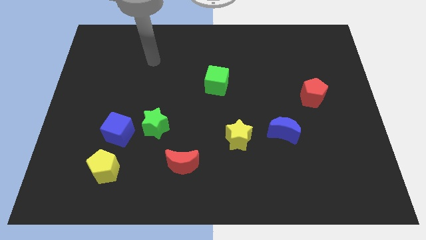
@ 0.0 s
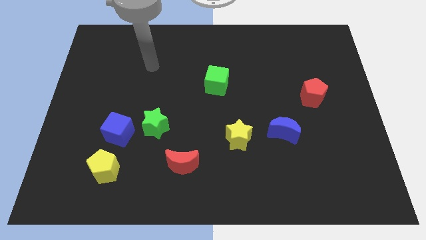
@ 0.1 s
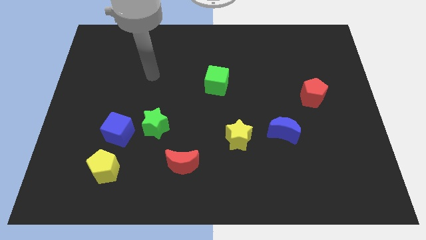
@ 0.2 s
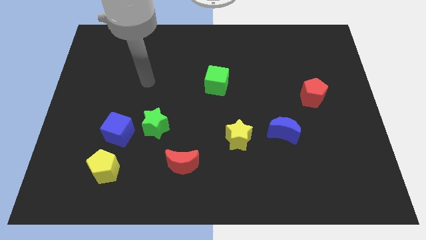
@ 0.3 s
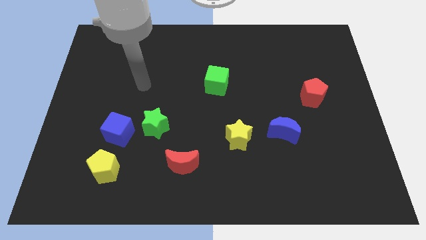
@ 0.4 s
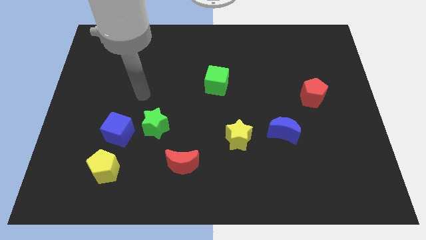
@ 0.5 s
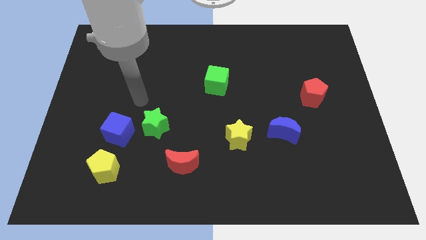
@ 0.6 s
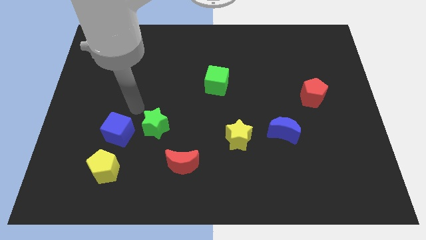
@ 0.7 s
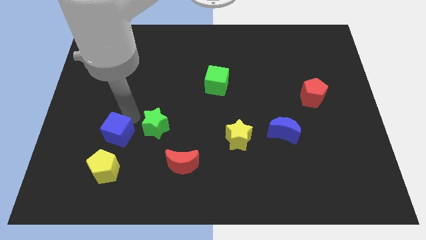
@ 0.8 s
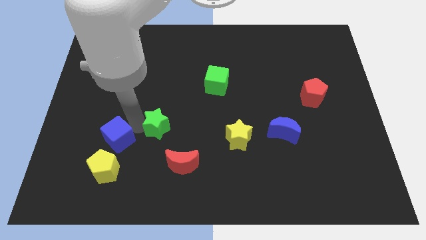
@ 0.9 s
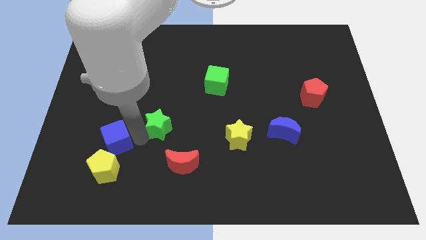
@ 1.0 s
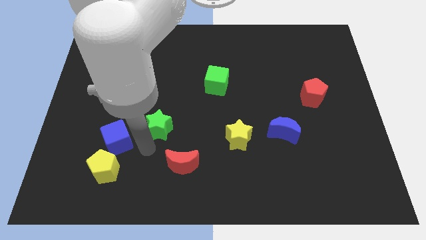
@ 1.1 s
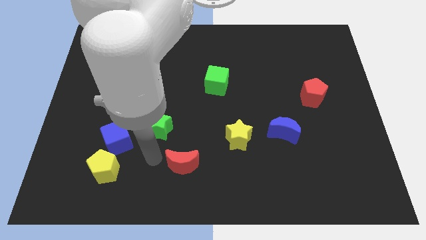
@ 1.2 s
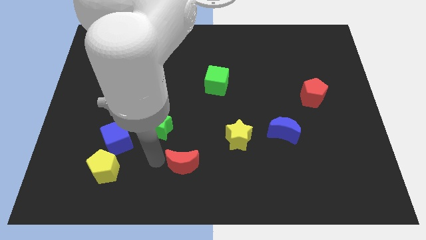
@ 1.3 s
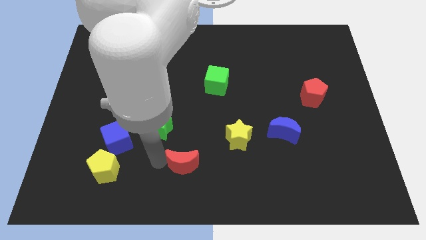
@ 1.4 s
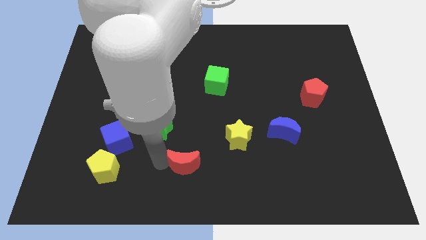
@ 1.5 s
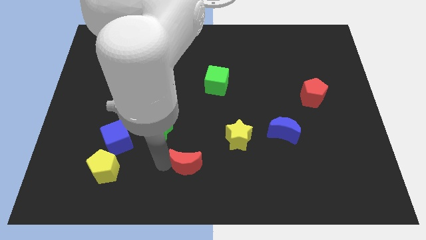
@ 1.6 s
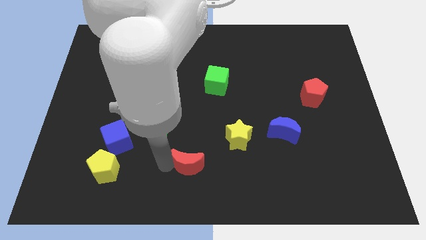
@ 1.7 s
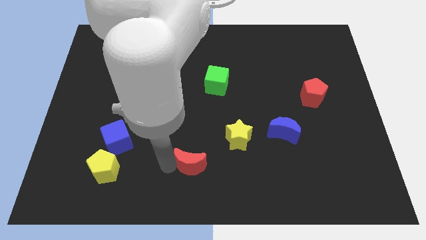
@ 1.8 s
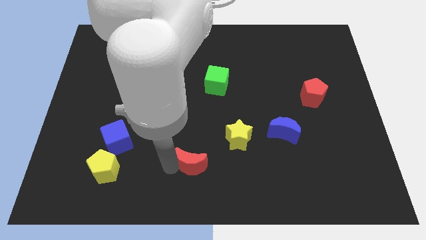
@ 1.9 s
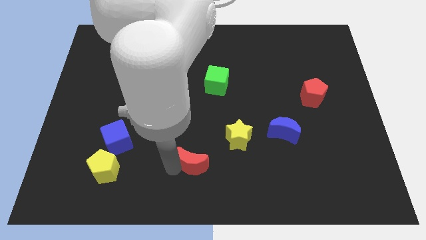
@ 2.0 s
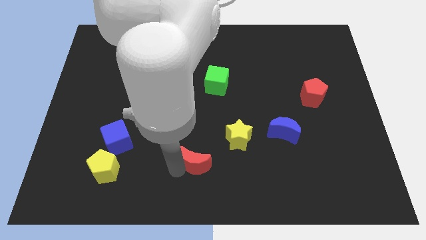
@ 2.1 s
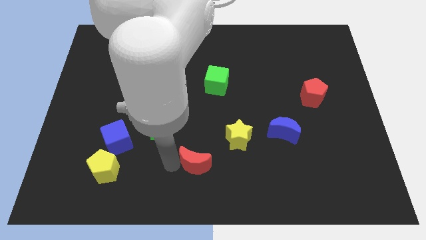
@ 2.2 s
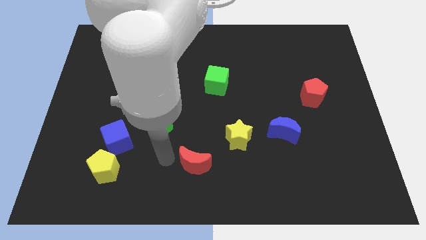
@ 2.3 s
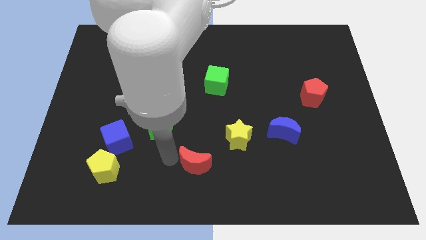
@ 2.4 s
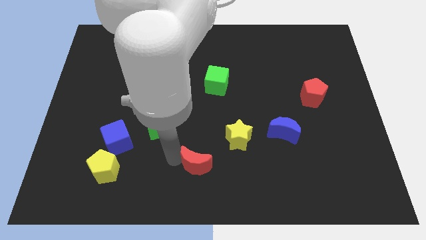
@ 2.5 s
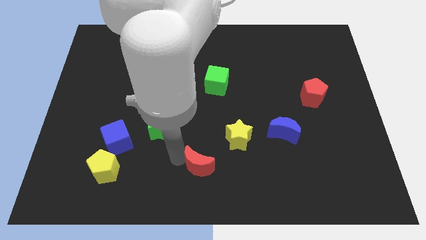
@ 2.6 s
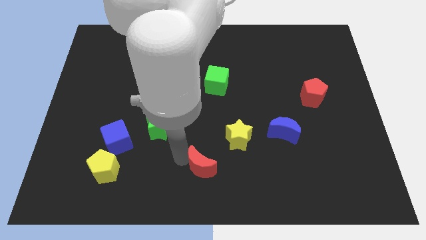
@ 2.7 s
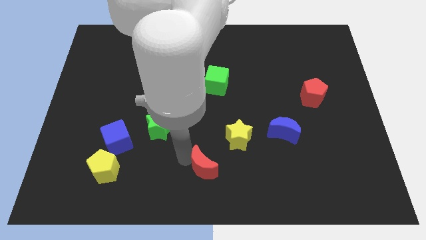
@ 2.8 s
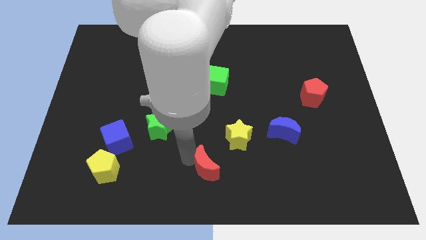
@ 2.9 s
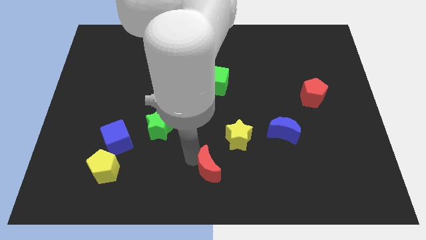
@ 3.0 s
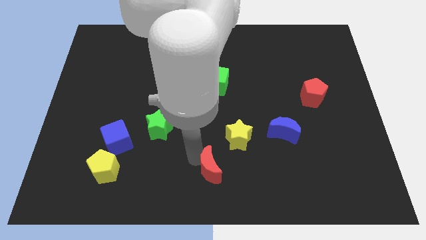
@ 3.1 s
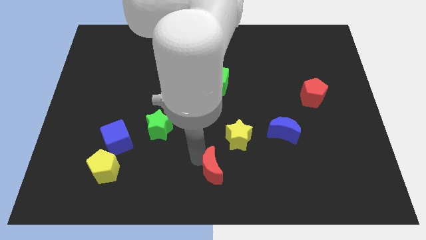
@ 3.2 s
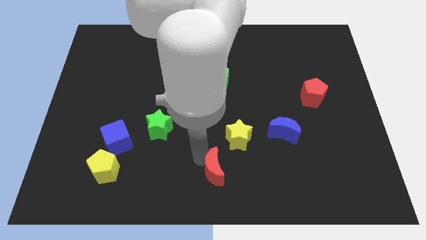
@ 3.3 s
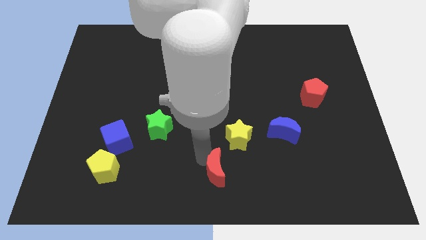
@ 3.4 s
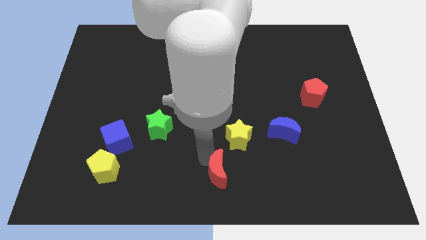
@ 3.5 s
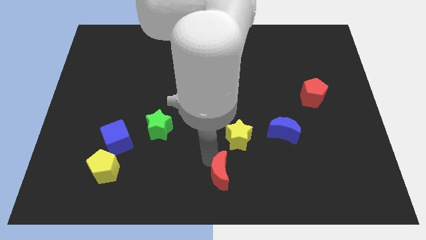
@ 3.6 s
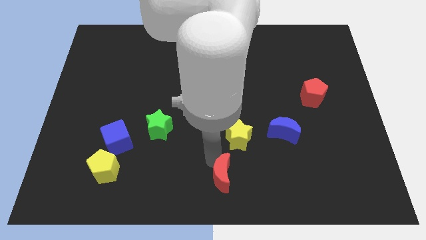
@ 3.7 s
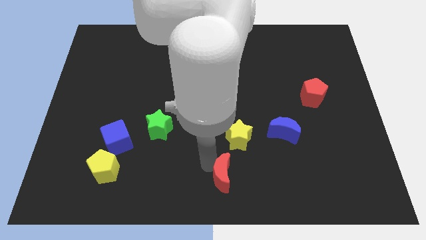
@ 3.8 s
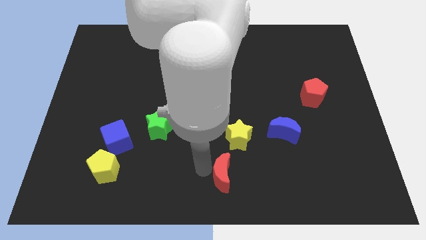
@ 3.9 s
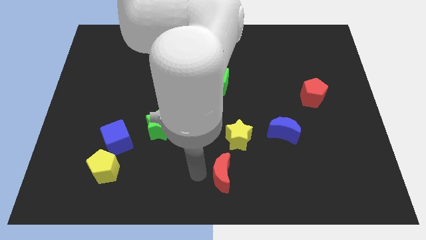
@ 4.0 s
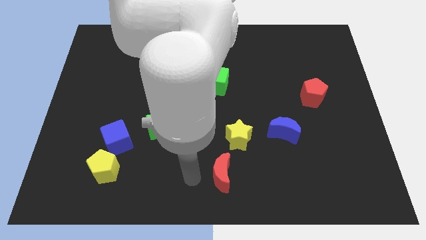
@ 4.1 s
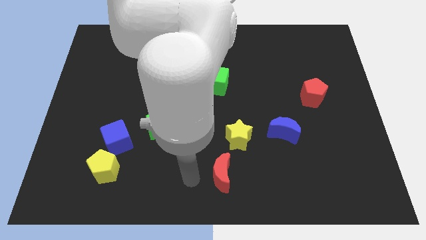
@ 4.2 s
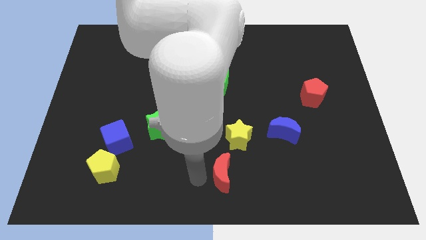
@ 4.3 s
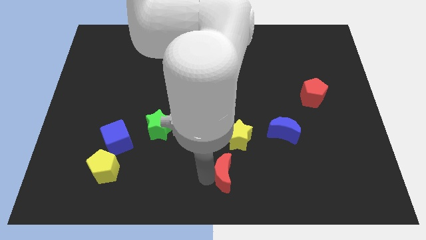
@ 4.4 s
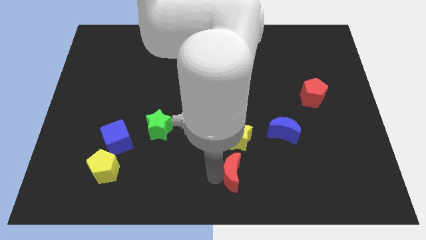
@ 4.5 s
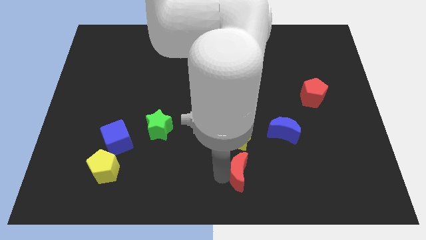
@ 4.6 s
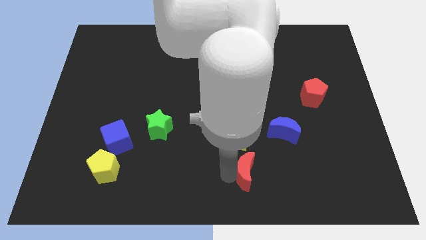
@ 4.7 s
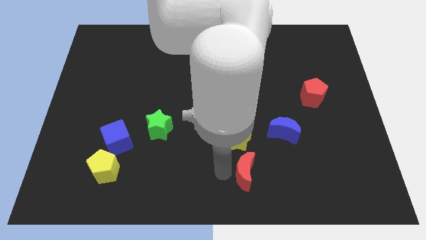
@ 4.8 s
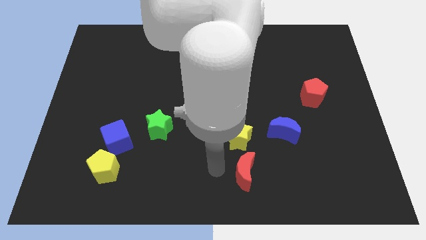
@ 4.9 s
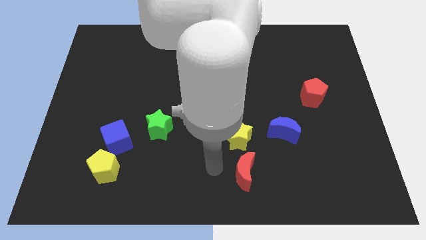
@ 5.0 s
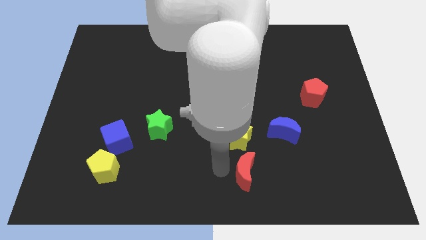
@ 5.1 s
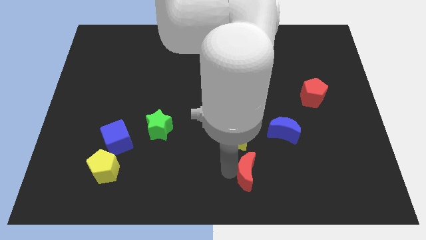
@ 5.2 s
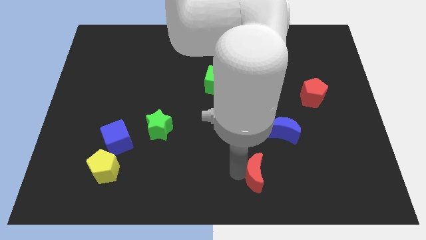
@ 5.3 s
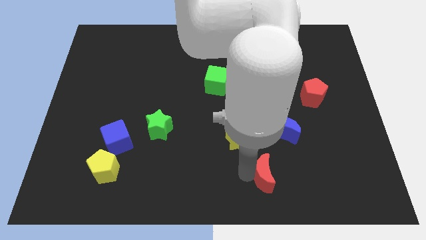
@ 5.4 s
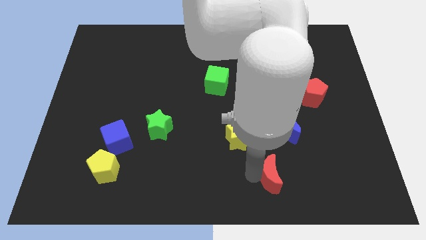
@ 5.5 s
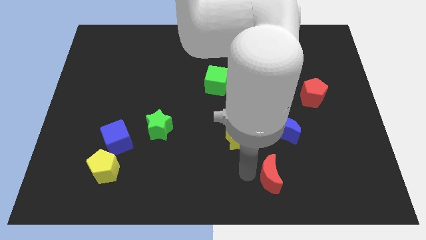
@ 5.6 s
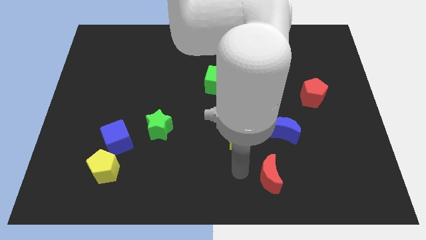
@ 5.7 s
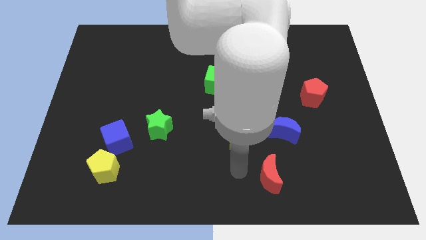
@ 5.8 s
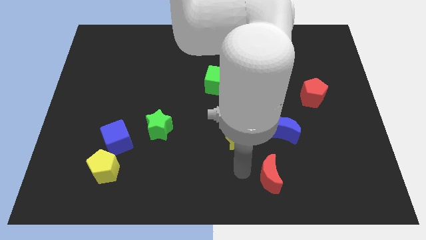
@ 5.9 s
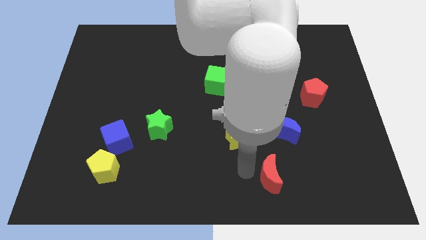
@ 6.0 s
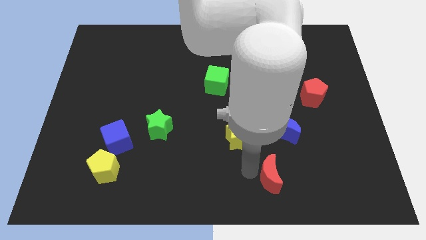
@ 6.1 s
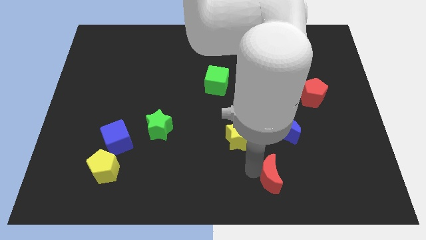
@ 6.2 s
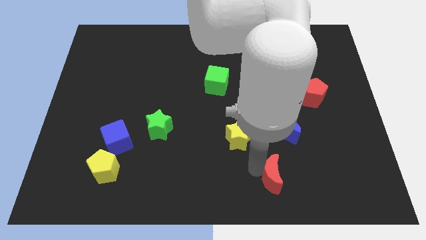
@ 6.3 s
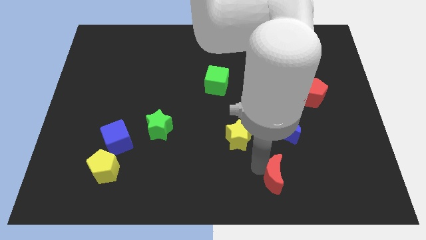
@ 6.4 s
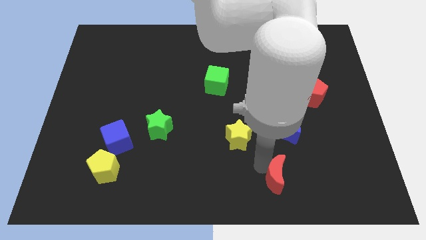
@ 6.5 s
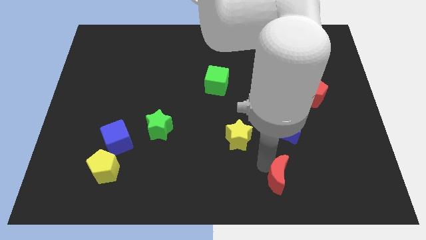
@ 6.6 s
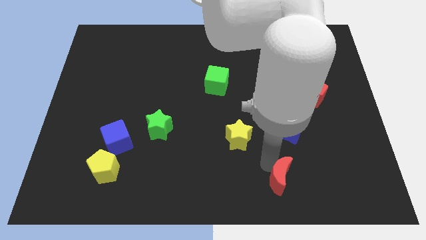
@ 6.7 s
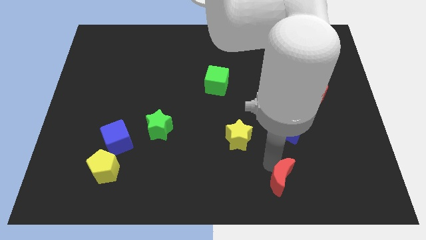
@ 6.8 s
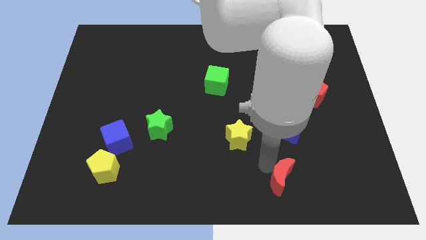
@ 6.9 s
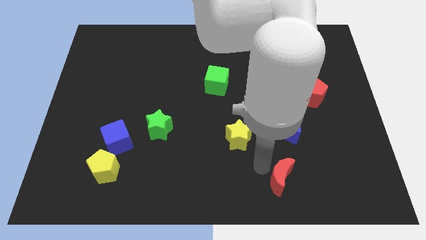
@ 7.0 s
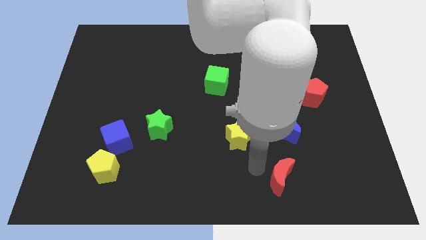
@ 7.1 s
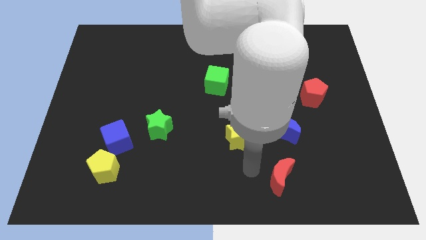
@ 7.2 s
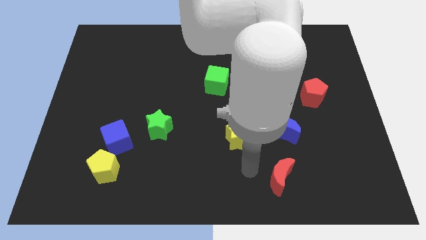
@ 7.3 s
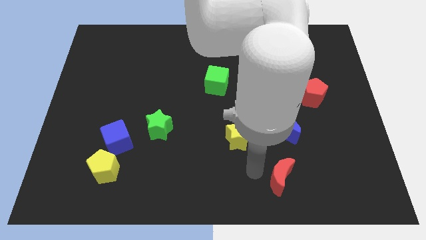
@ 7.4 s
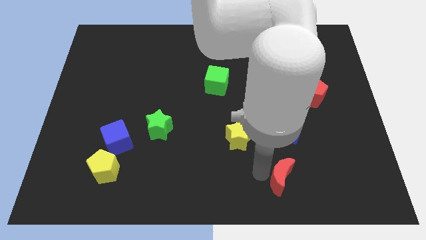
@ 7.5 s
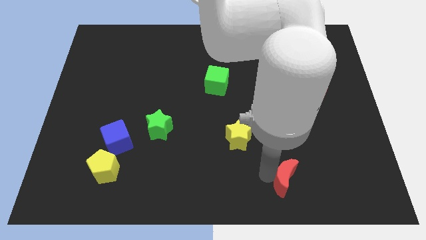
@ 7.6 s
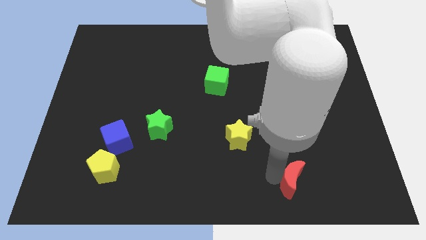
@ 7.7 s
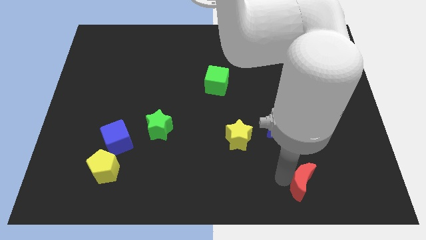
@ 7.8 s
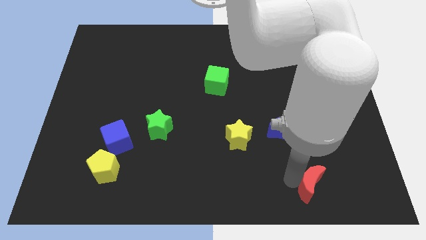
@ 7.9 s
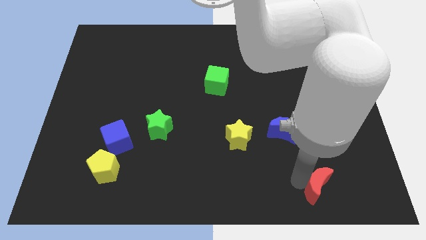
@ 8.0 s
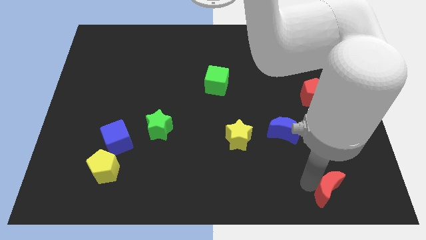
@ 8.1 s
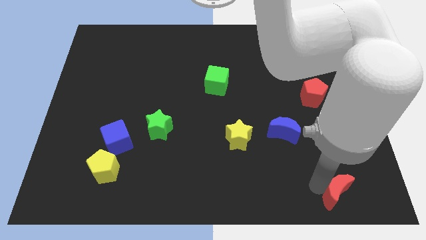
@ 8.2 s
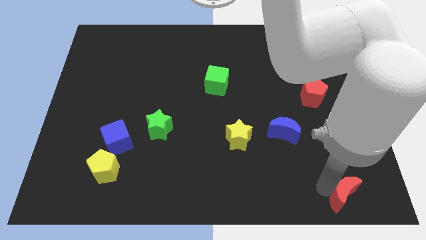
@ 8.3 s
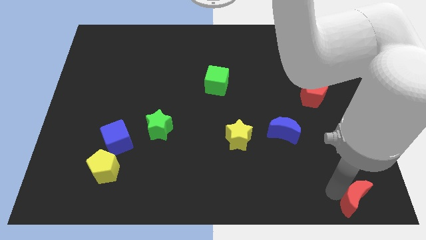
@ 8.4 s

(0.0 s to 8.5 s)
move the red moon to the bottom right corner
